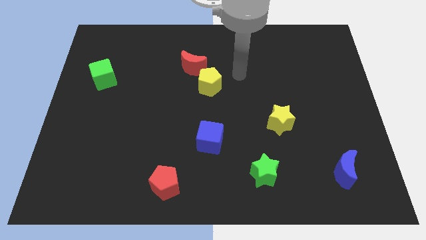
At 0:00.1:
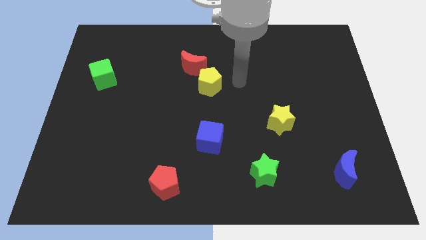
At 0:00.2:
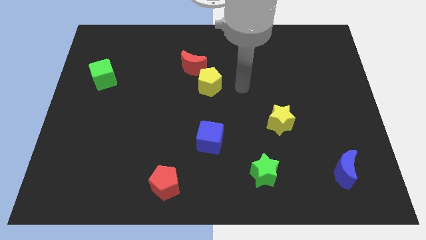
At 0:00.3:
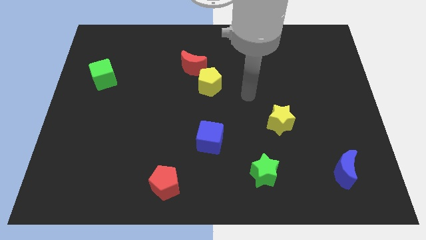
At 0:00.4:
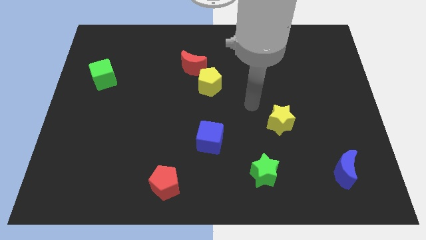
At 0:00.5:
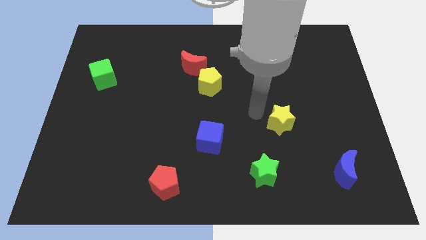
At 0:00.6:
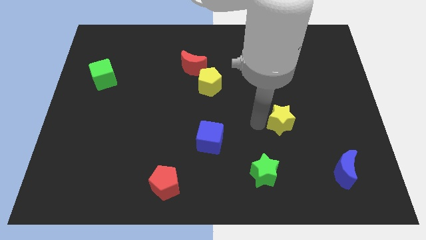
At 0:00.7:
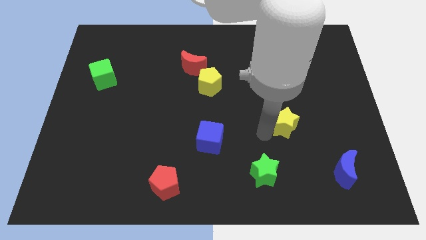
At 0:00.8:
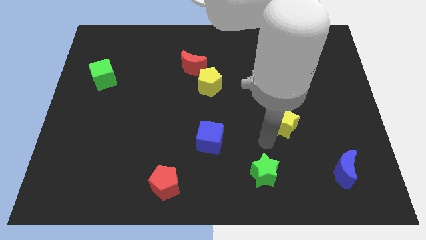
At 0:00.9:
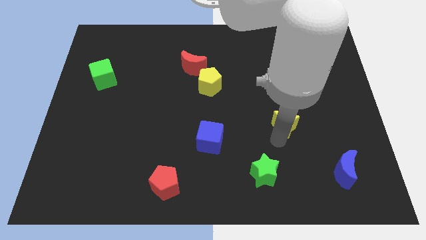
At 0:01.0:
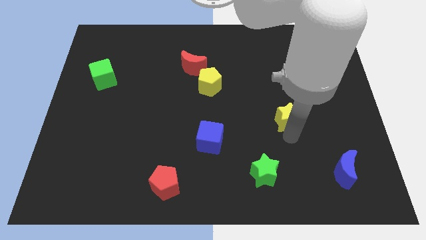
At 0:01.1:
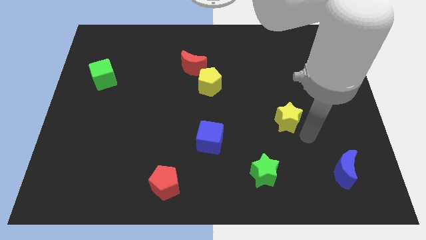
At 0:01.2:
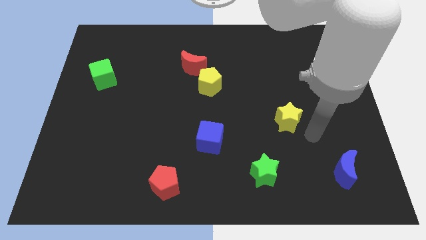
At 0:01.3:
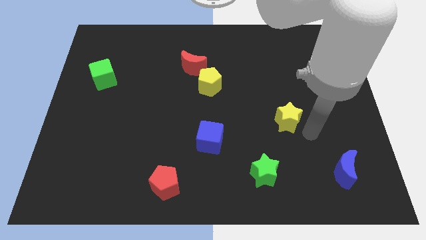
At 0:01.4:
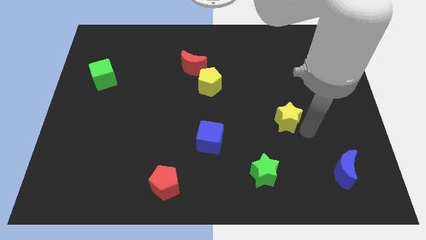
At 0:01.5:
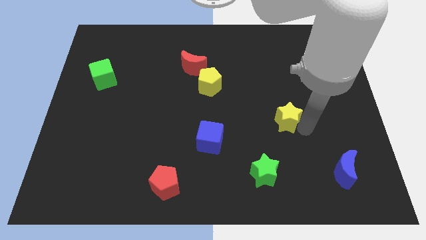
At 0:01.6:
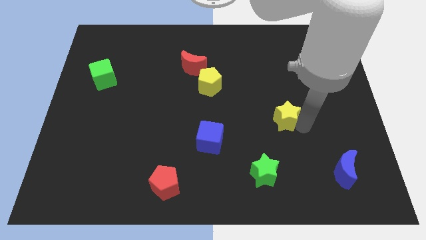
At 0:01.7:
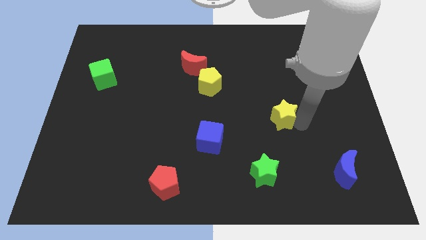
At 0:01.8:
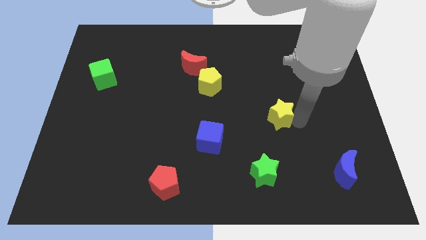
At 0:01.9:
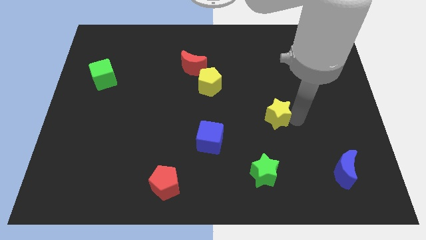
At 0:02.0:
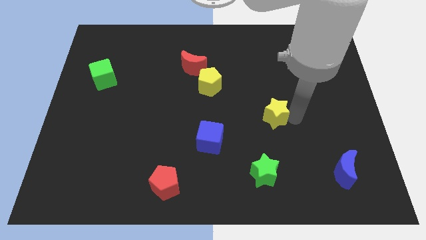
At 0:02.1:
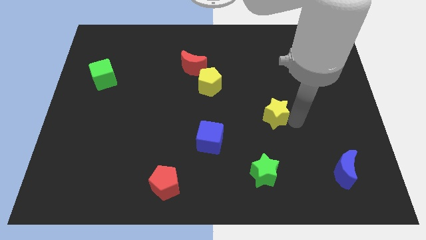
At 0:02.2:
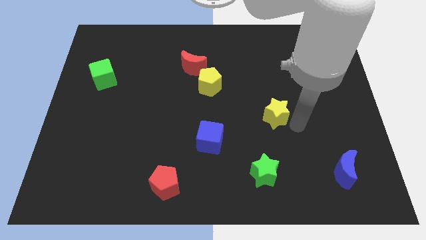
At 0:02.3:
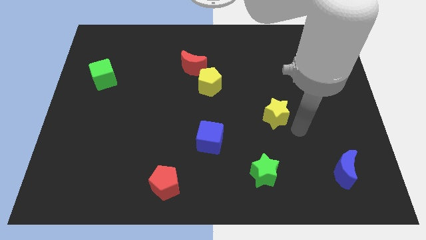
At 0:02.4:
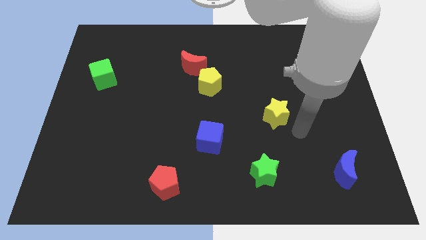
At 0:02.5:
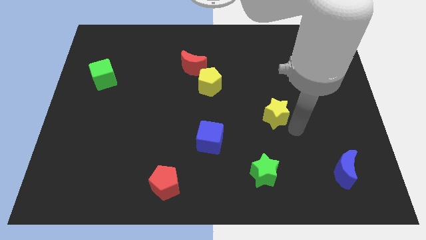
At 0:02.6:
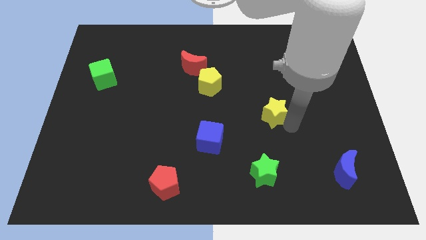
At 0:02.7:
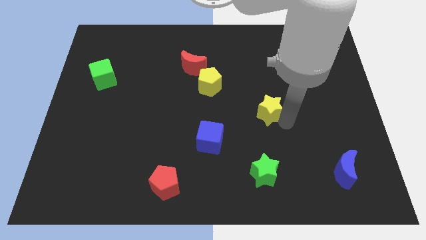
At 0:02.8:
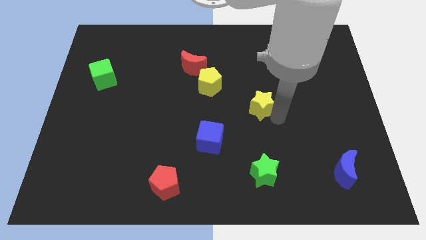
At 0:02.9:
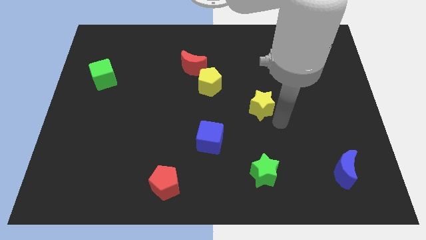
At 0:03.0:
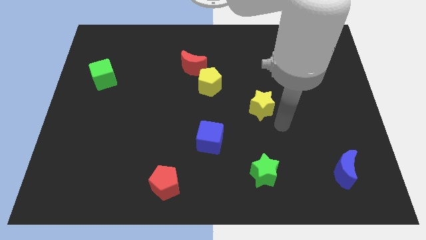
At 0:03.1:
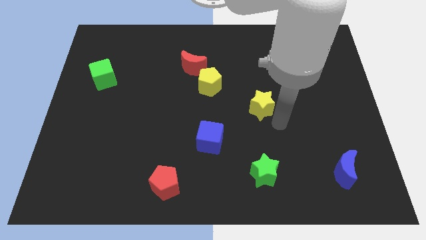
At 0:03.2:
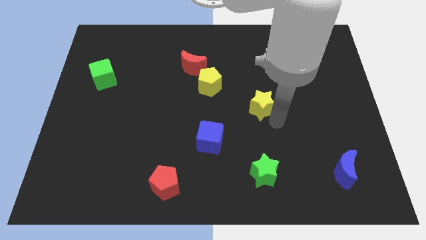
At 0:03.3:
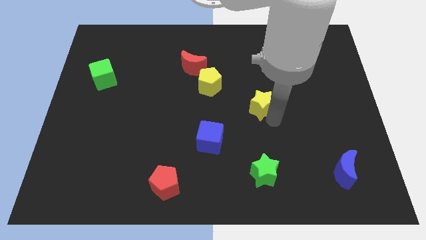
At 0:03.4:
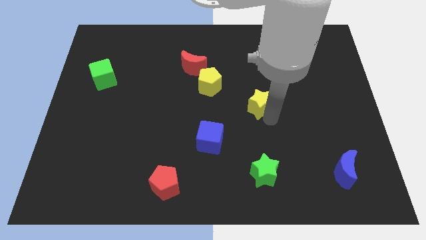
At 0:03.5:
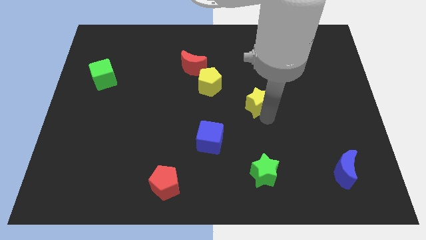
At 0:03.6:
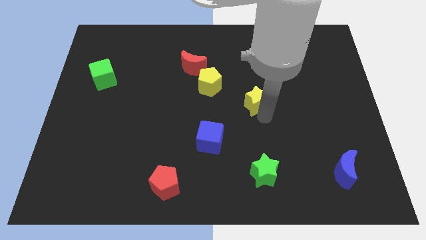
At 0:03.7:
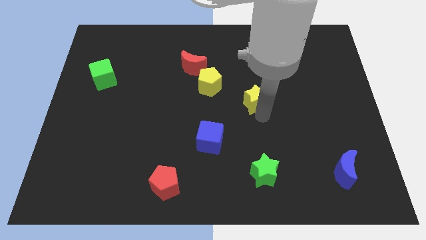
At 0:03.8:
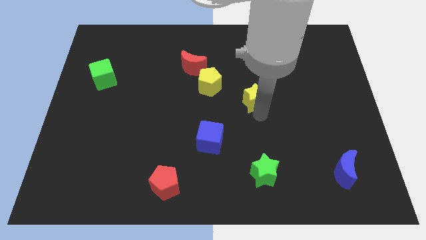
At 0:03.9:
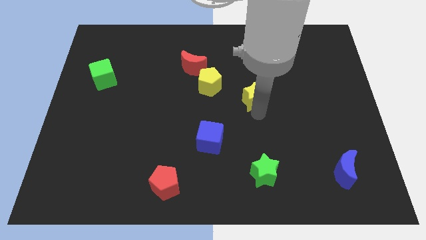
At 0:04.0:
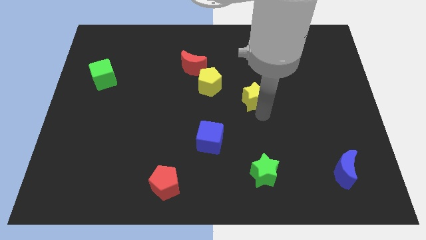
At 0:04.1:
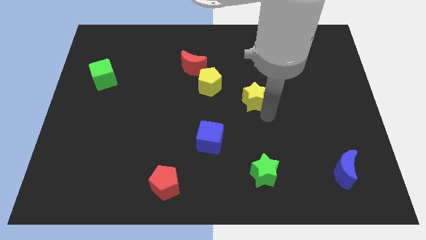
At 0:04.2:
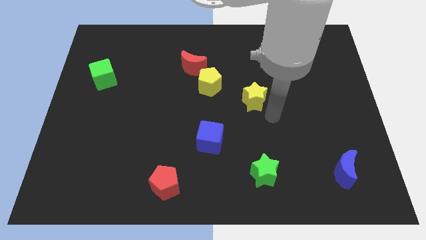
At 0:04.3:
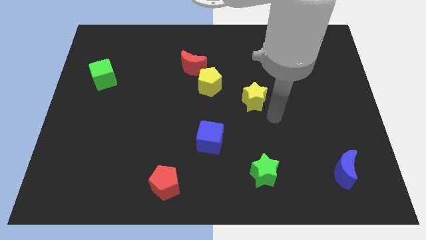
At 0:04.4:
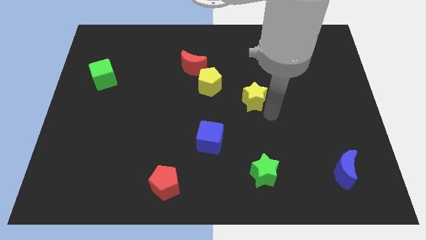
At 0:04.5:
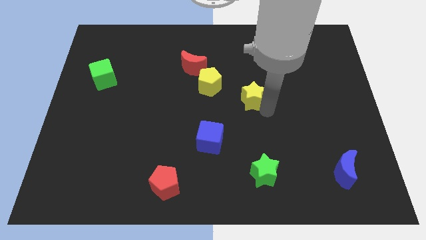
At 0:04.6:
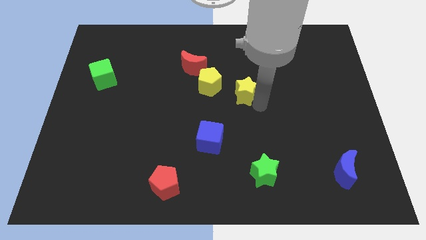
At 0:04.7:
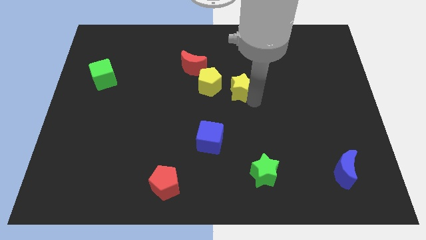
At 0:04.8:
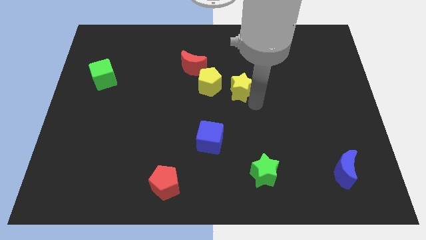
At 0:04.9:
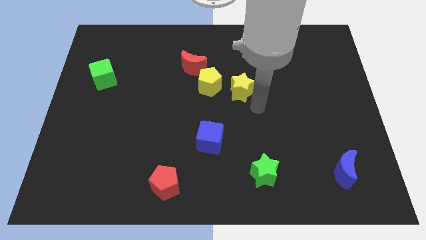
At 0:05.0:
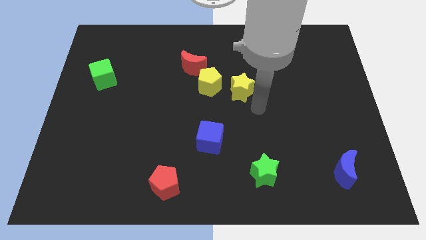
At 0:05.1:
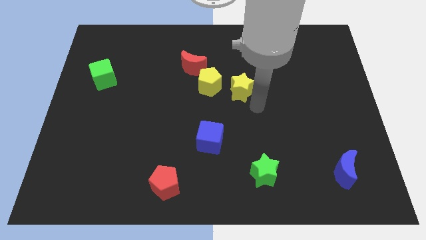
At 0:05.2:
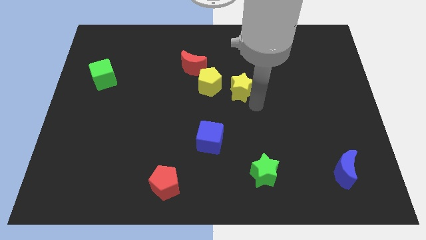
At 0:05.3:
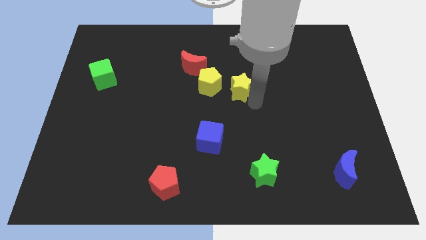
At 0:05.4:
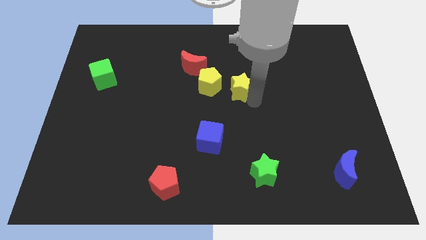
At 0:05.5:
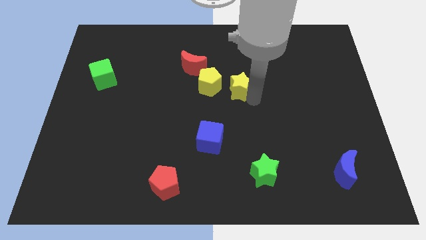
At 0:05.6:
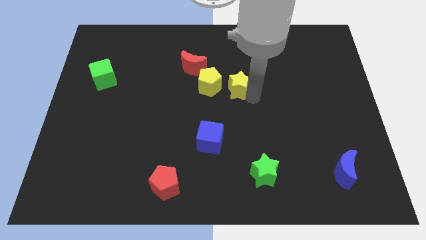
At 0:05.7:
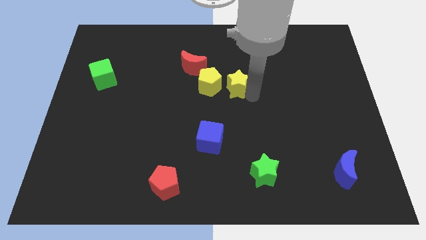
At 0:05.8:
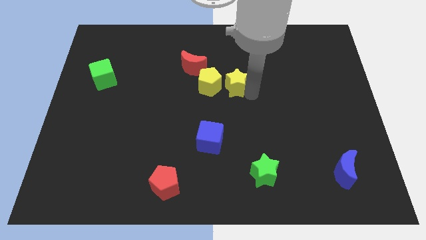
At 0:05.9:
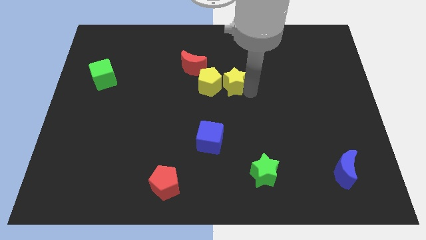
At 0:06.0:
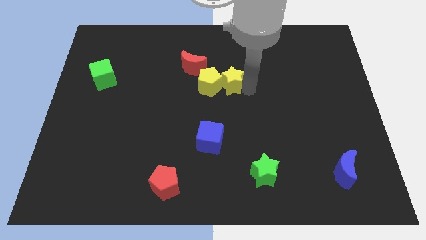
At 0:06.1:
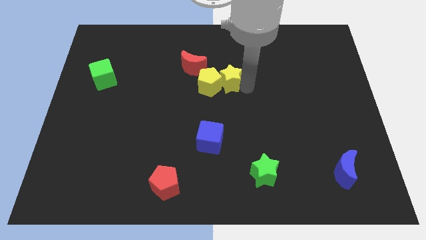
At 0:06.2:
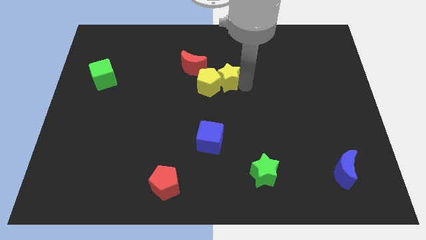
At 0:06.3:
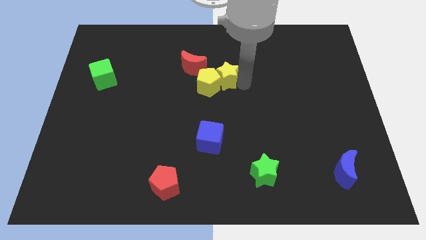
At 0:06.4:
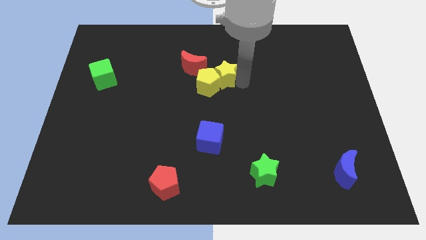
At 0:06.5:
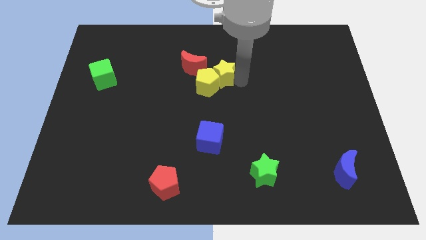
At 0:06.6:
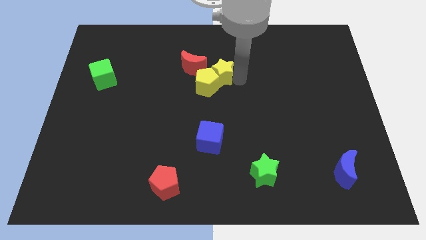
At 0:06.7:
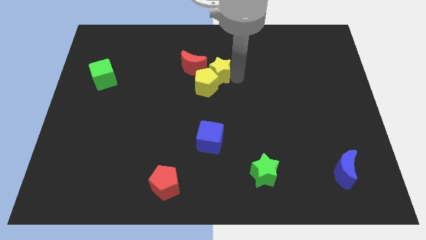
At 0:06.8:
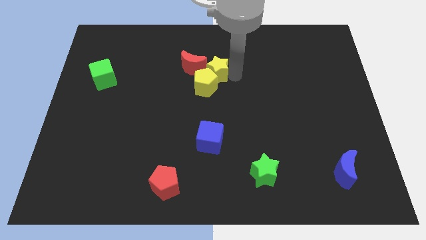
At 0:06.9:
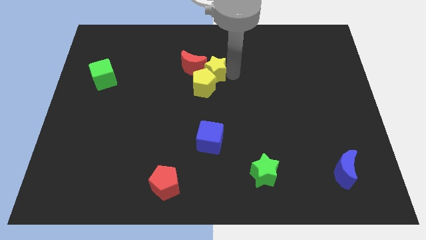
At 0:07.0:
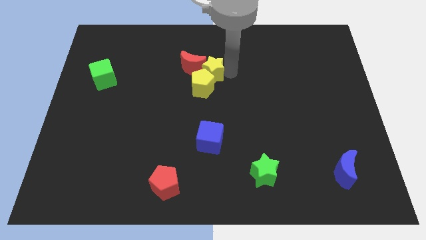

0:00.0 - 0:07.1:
slide the yellow star close to the red moon
